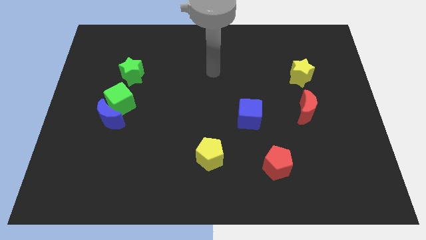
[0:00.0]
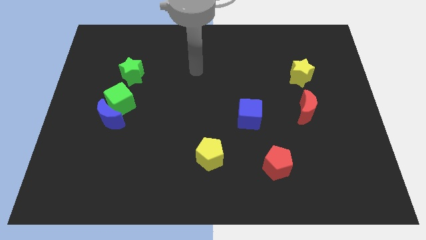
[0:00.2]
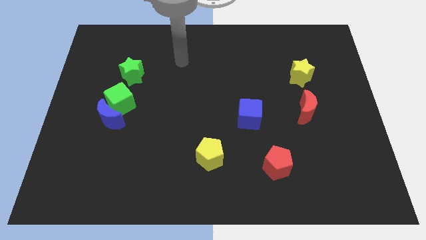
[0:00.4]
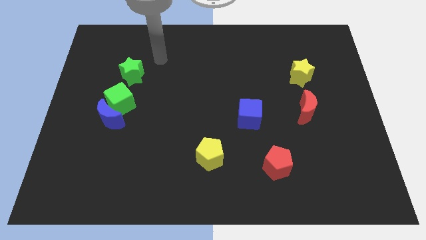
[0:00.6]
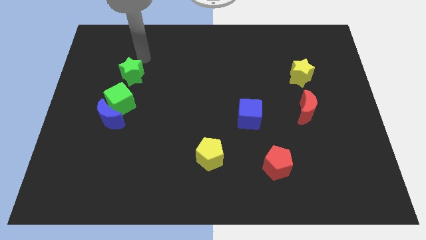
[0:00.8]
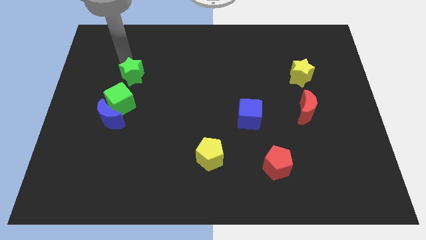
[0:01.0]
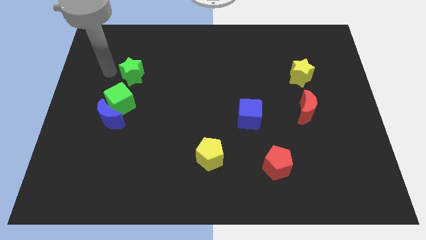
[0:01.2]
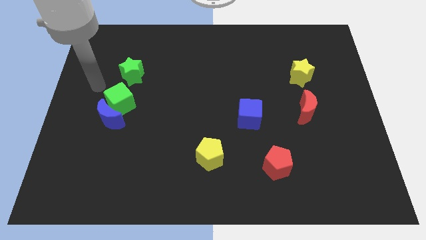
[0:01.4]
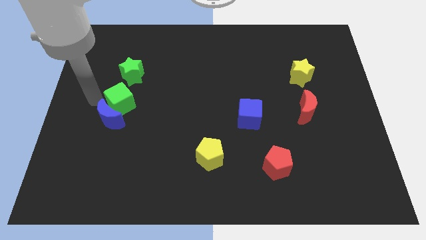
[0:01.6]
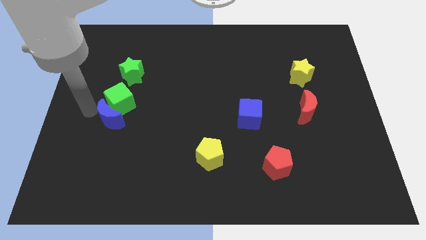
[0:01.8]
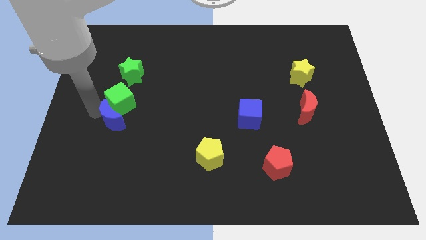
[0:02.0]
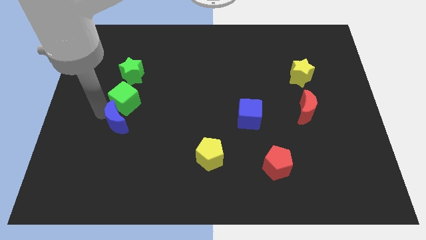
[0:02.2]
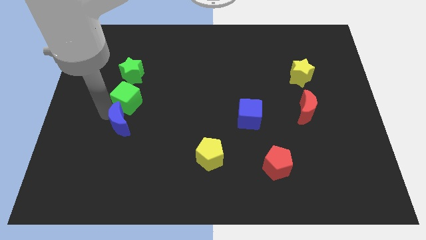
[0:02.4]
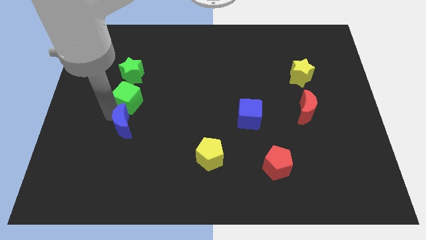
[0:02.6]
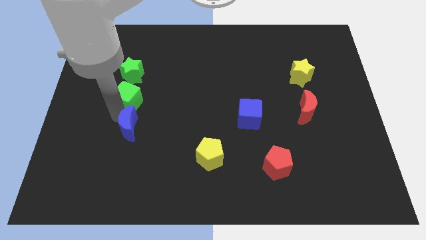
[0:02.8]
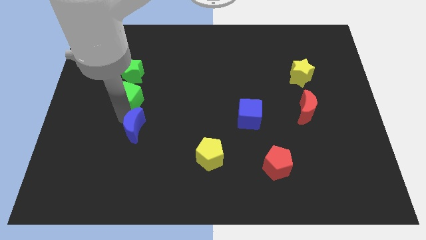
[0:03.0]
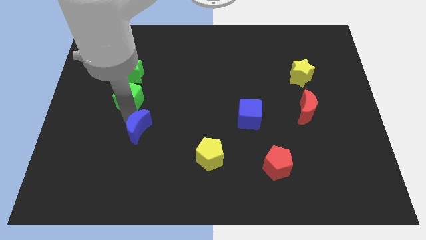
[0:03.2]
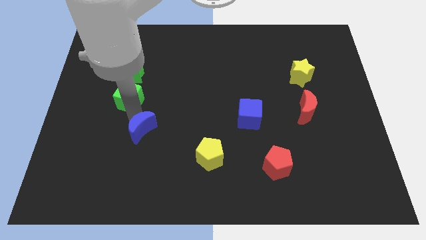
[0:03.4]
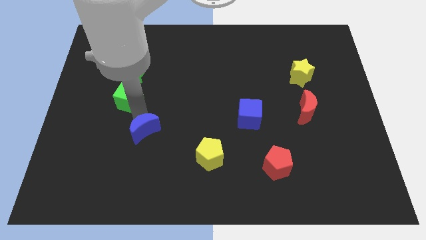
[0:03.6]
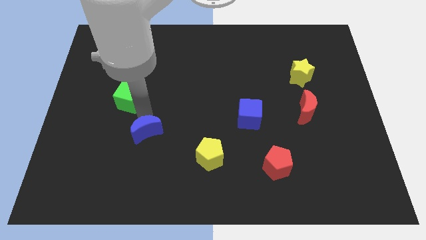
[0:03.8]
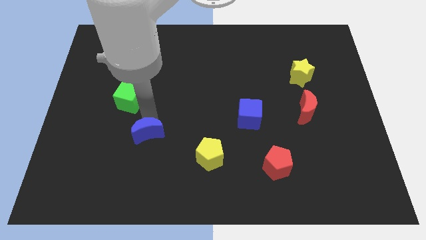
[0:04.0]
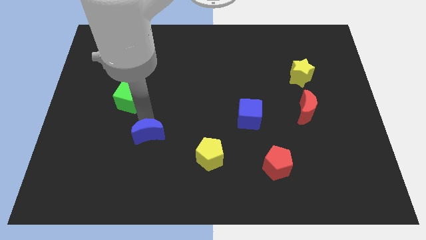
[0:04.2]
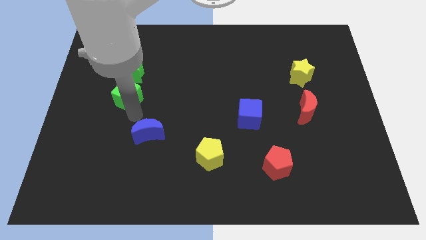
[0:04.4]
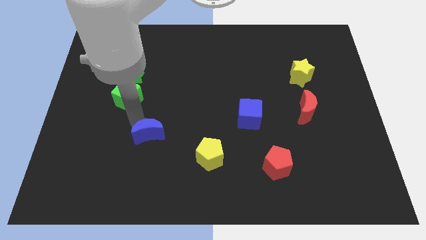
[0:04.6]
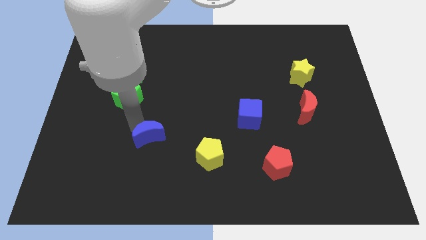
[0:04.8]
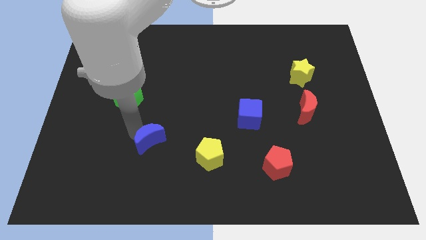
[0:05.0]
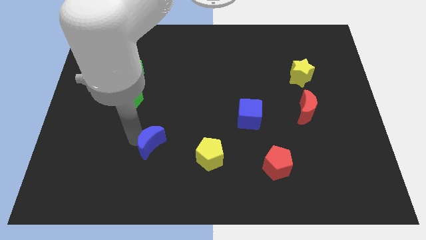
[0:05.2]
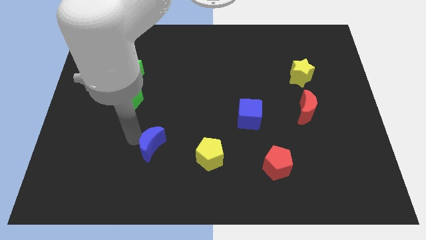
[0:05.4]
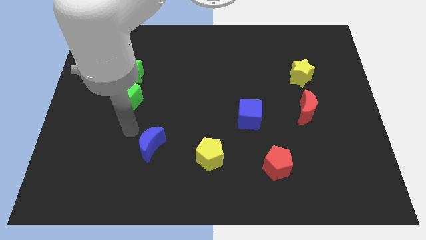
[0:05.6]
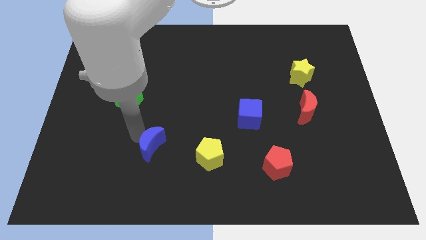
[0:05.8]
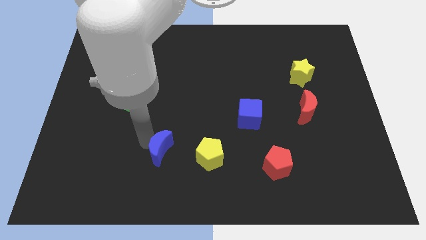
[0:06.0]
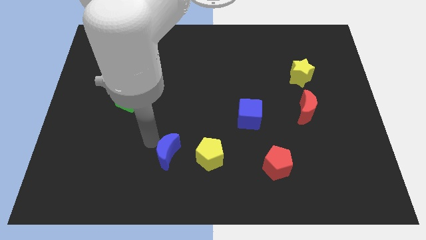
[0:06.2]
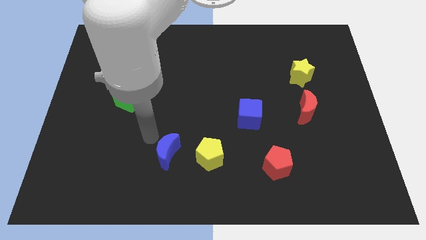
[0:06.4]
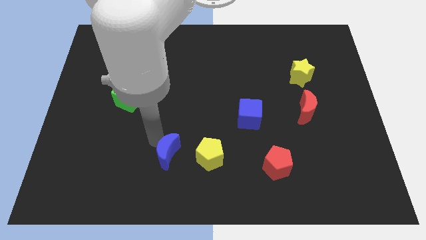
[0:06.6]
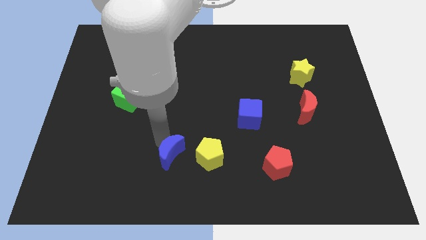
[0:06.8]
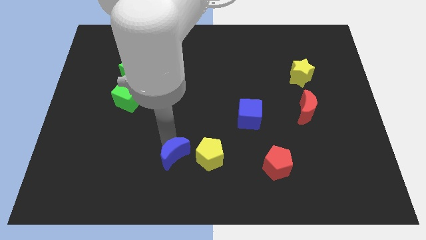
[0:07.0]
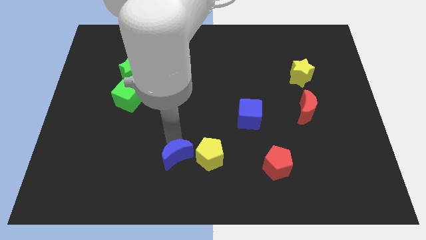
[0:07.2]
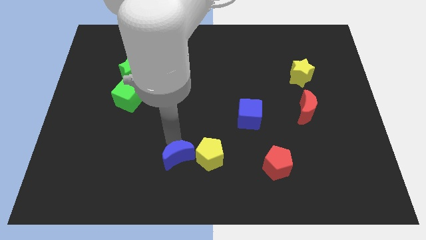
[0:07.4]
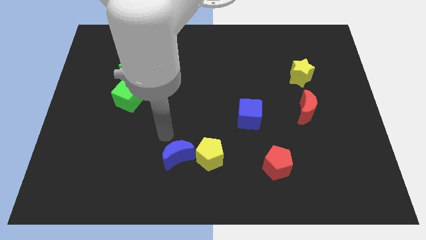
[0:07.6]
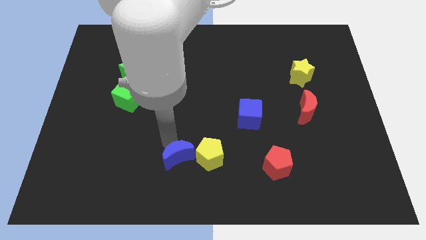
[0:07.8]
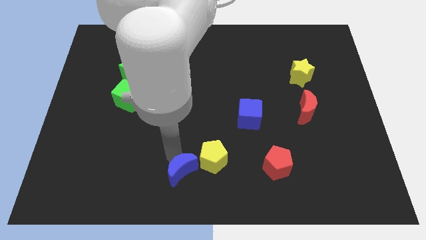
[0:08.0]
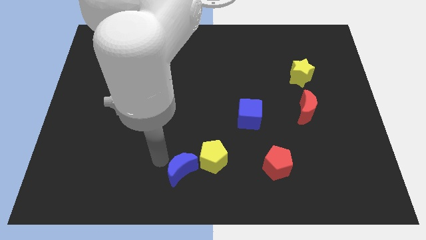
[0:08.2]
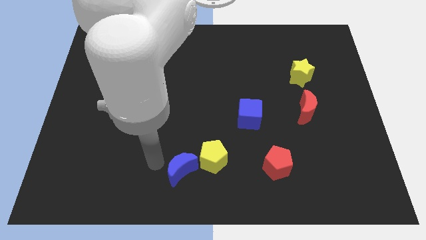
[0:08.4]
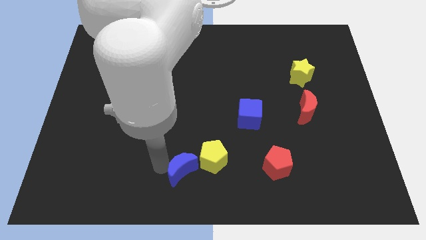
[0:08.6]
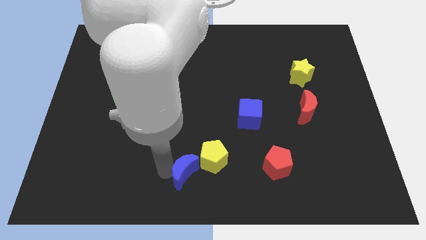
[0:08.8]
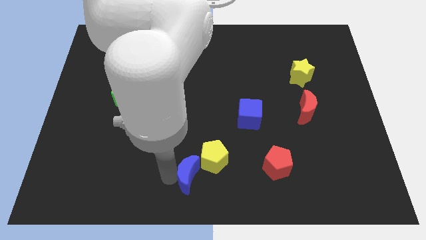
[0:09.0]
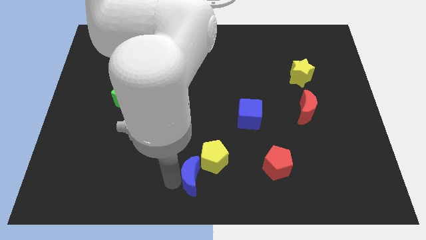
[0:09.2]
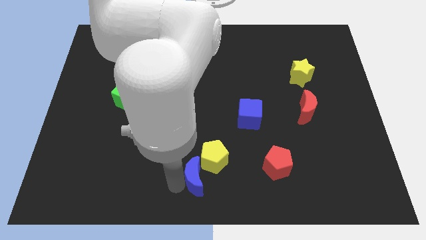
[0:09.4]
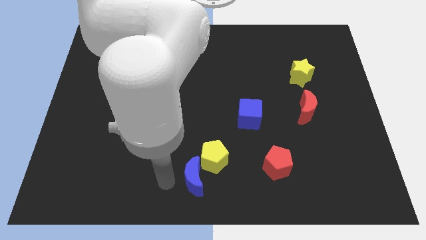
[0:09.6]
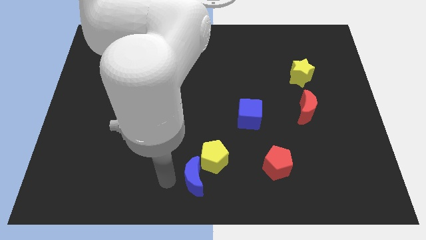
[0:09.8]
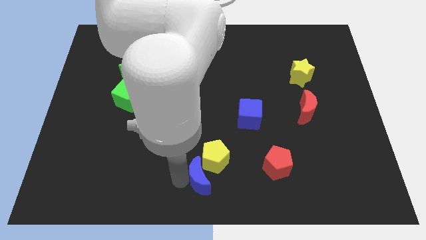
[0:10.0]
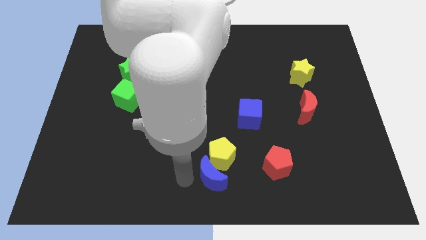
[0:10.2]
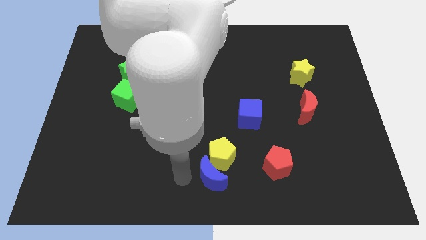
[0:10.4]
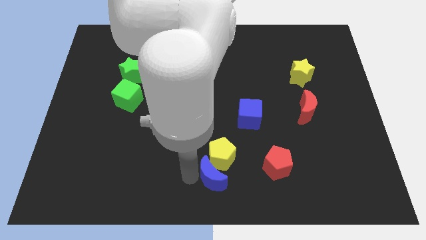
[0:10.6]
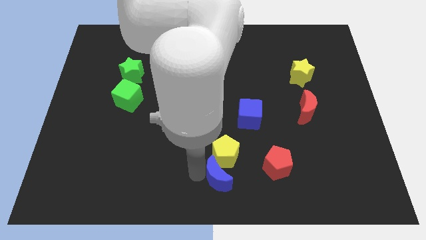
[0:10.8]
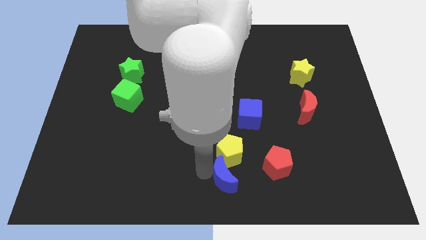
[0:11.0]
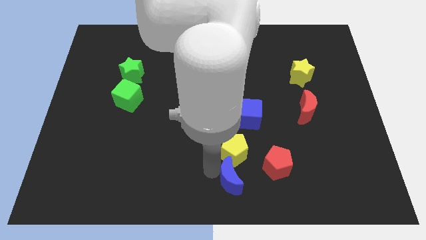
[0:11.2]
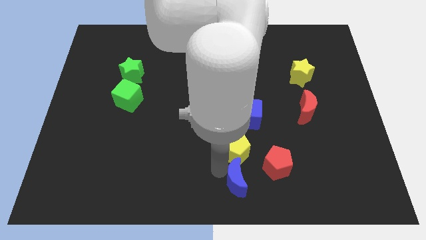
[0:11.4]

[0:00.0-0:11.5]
put the blue moon to the bottom right of the yellow pentagon
